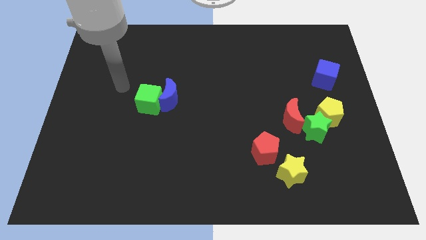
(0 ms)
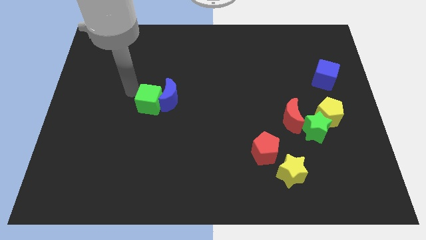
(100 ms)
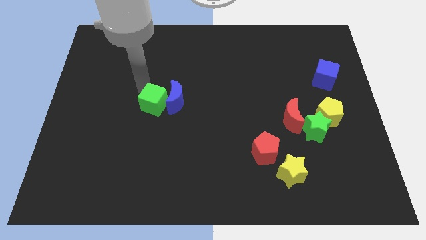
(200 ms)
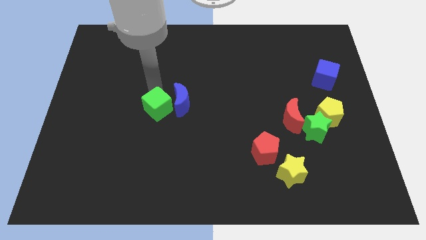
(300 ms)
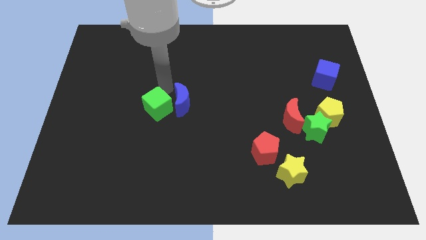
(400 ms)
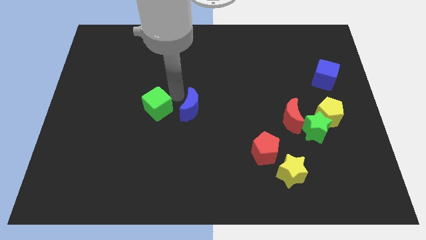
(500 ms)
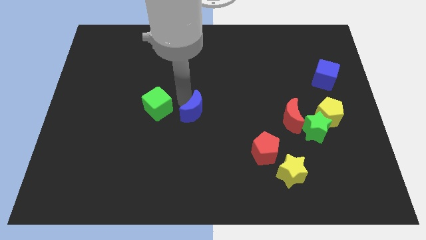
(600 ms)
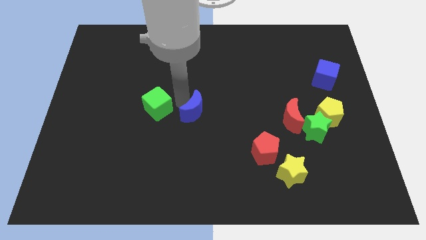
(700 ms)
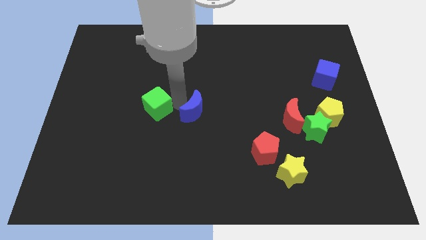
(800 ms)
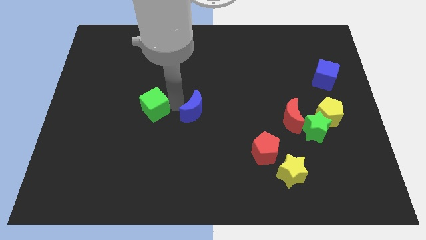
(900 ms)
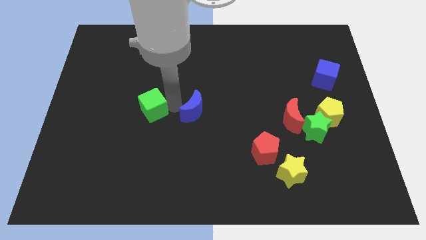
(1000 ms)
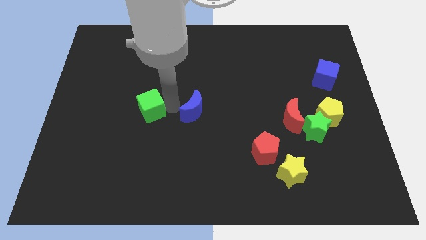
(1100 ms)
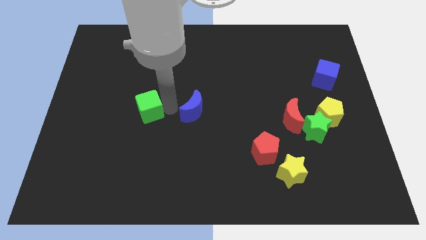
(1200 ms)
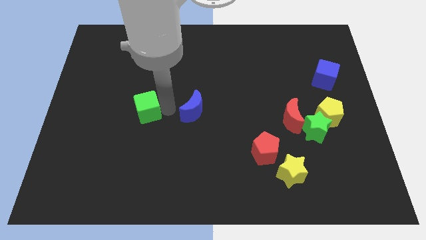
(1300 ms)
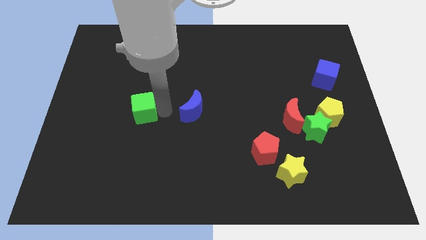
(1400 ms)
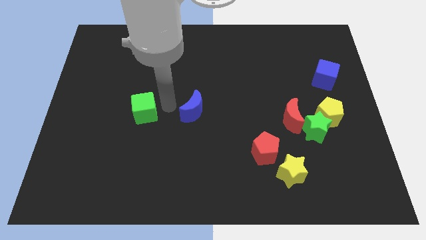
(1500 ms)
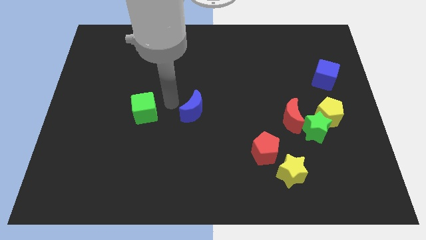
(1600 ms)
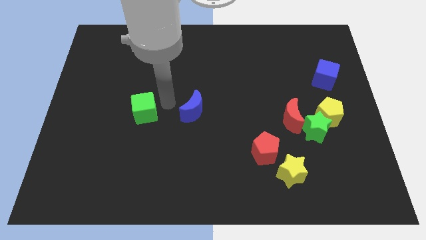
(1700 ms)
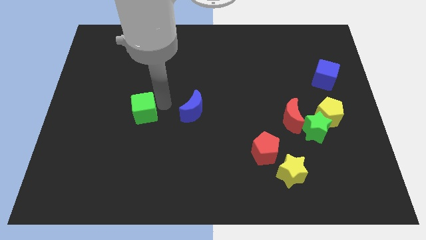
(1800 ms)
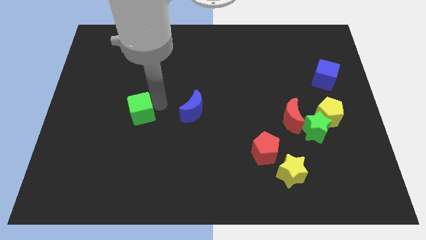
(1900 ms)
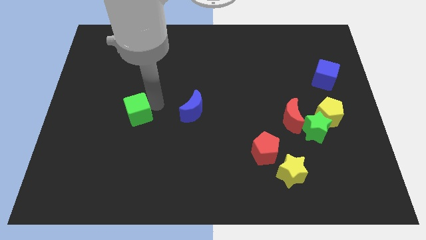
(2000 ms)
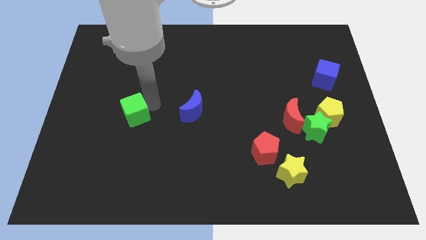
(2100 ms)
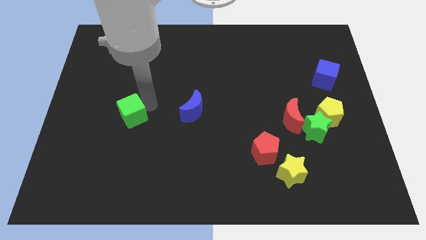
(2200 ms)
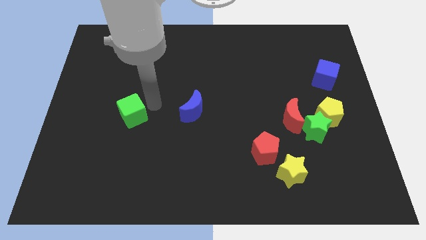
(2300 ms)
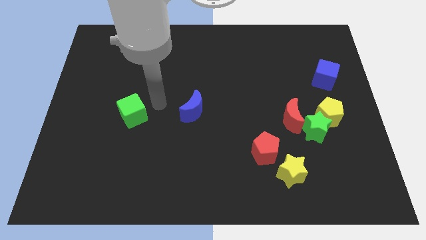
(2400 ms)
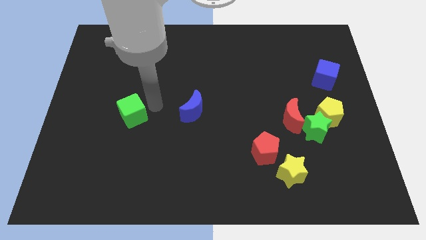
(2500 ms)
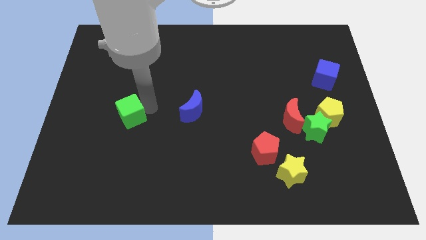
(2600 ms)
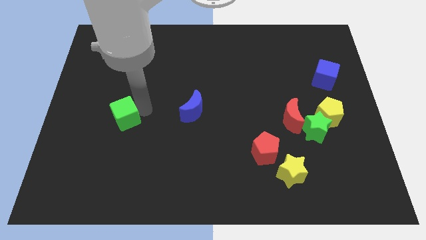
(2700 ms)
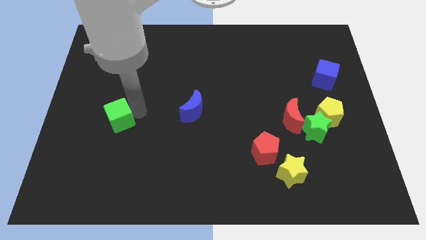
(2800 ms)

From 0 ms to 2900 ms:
slightly slide the green cube downwards and to the left

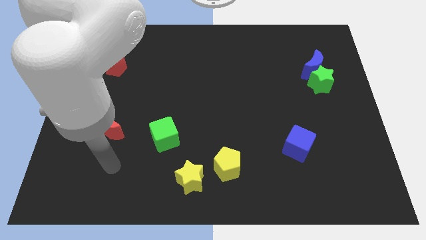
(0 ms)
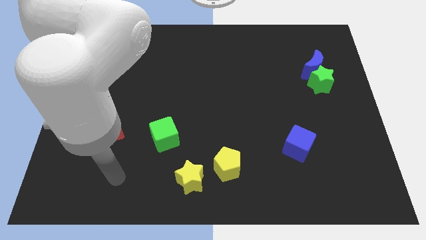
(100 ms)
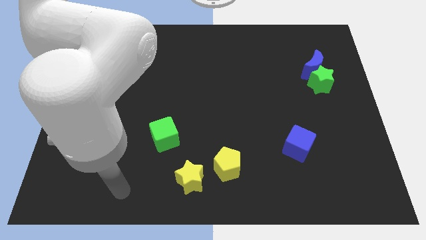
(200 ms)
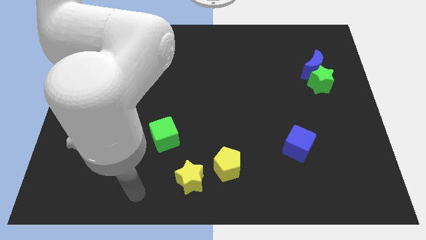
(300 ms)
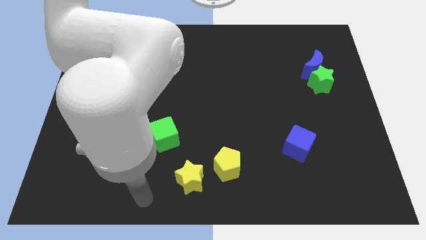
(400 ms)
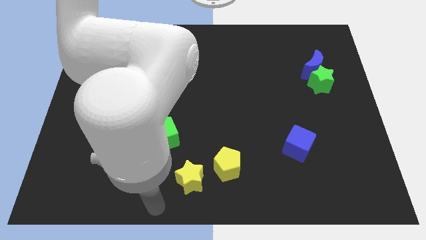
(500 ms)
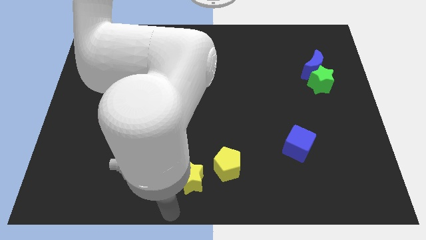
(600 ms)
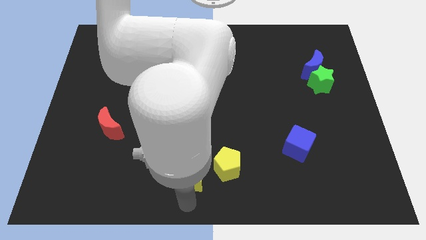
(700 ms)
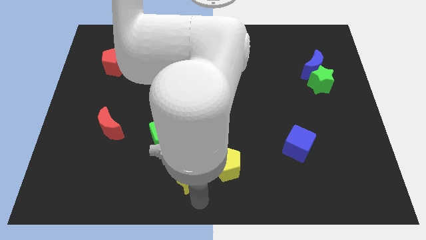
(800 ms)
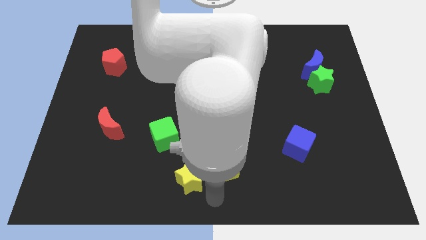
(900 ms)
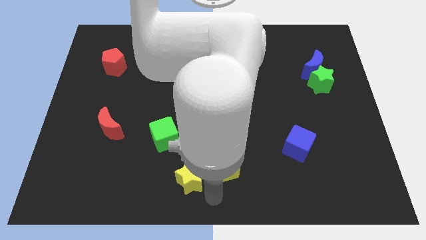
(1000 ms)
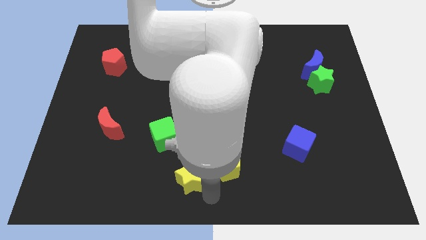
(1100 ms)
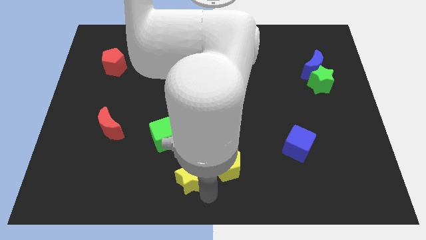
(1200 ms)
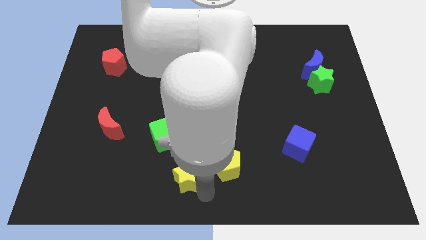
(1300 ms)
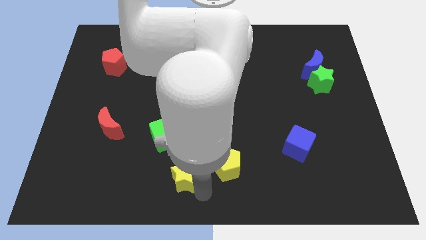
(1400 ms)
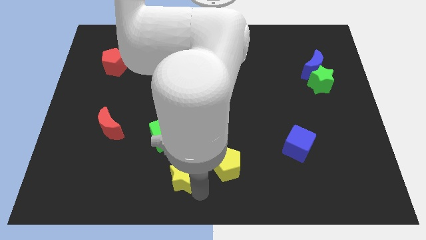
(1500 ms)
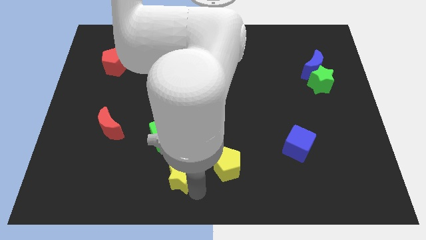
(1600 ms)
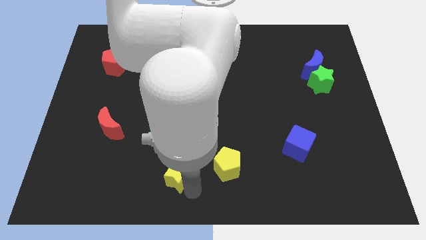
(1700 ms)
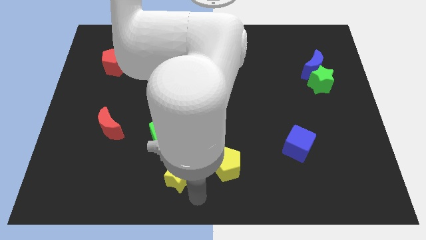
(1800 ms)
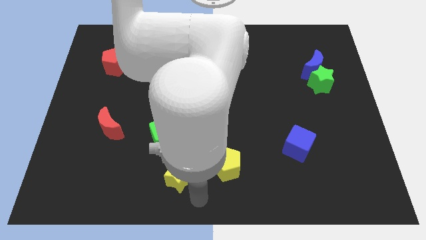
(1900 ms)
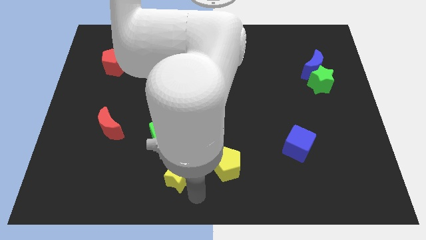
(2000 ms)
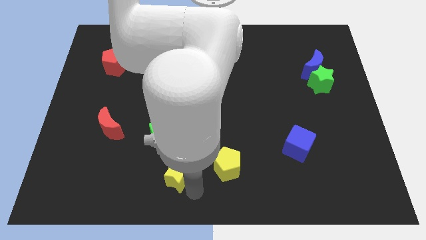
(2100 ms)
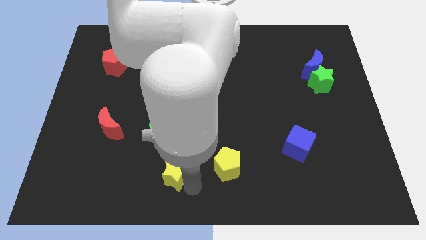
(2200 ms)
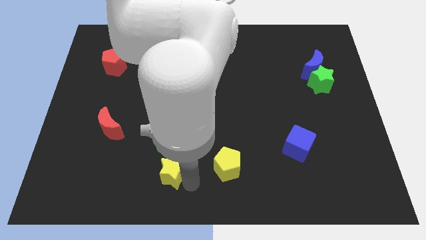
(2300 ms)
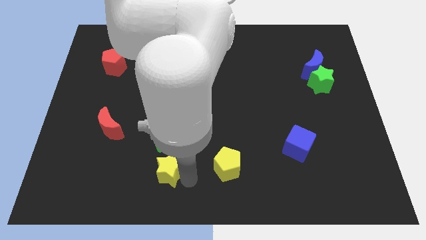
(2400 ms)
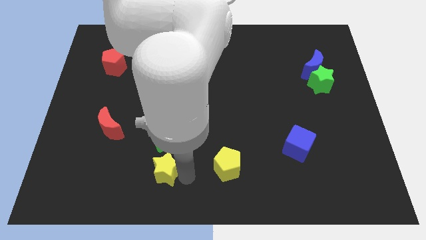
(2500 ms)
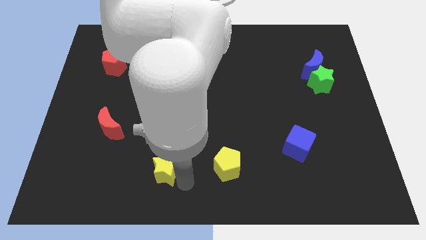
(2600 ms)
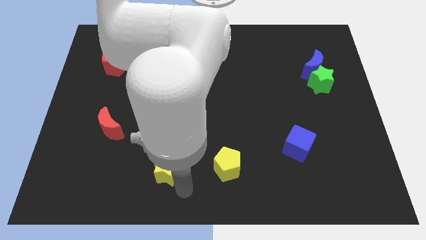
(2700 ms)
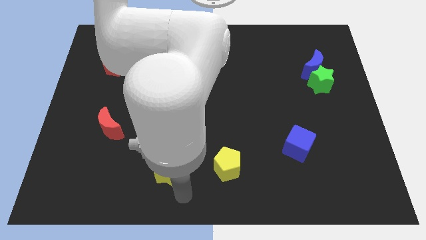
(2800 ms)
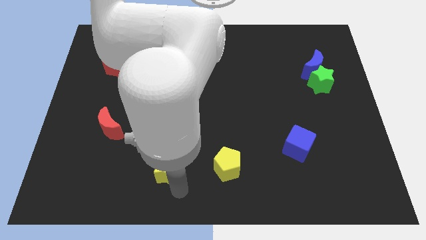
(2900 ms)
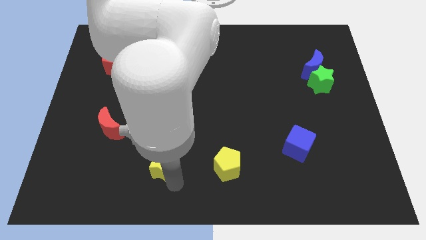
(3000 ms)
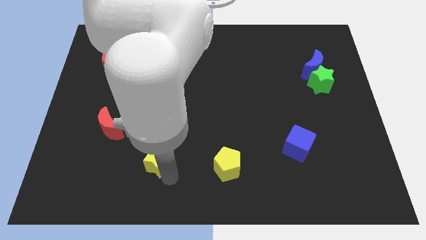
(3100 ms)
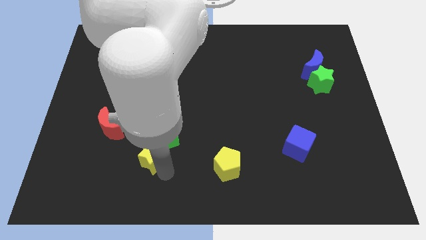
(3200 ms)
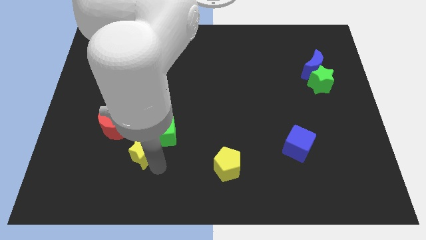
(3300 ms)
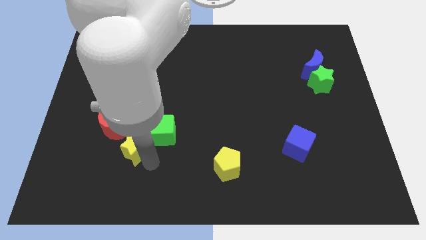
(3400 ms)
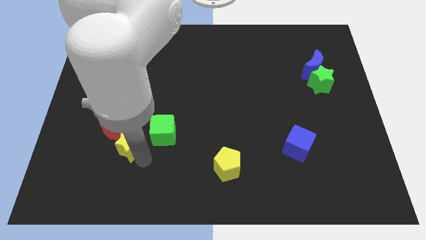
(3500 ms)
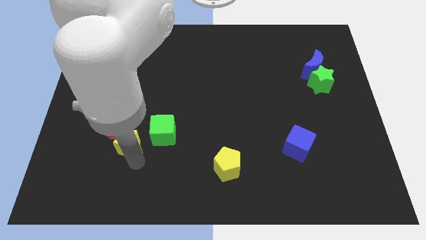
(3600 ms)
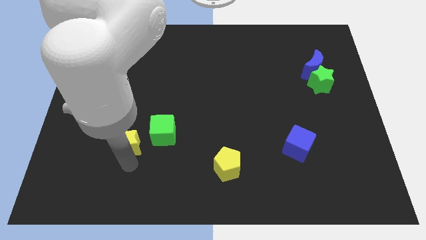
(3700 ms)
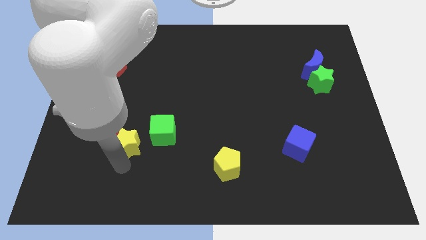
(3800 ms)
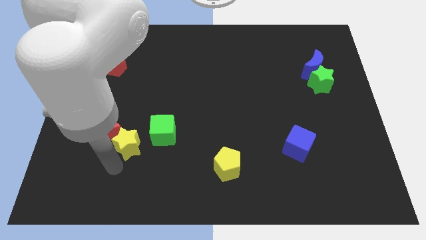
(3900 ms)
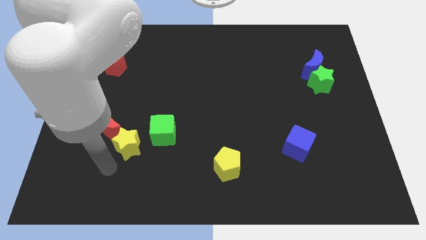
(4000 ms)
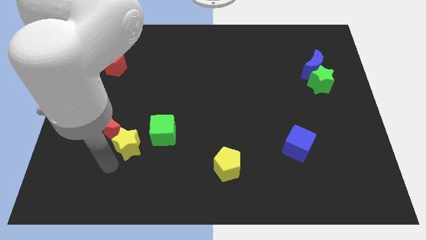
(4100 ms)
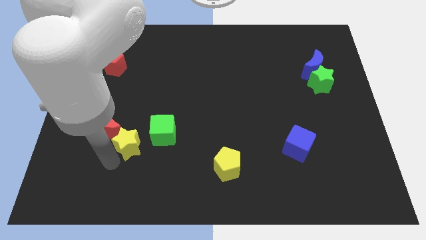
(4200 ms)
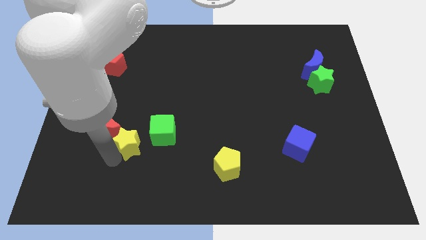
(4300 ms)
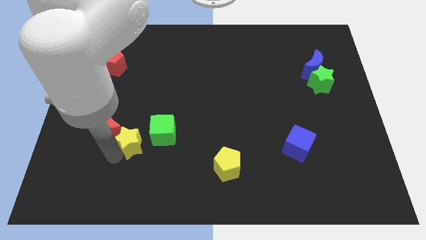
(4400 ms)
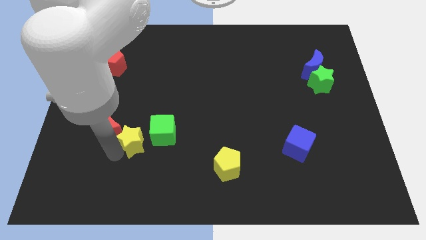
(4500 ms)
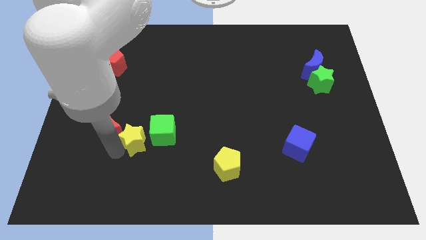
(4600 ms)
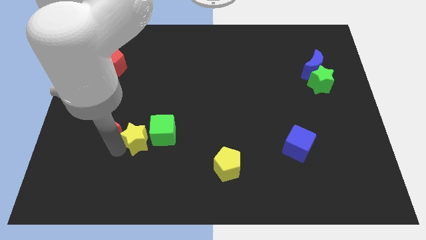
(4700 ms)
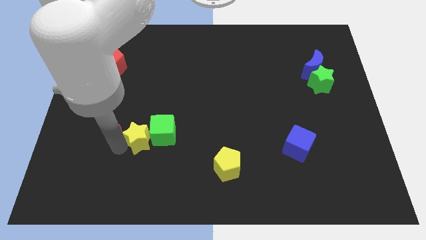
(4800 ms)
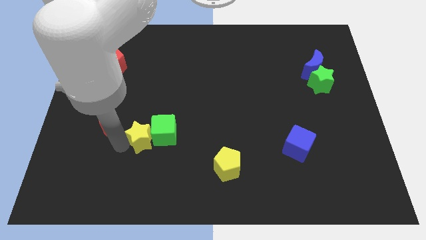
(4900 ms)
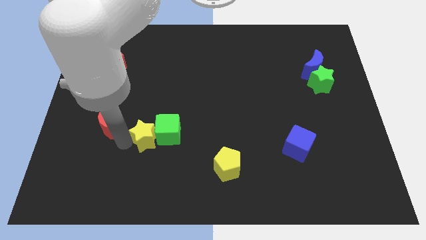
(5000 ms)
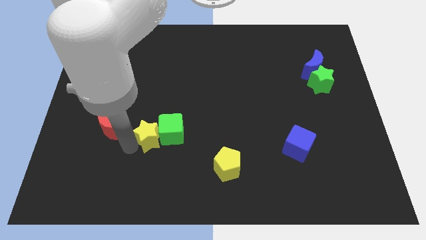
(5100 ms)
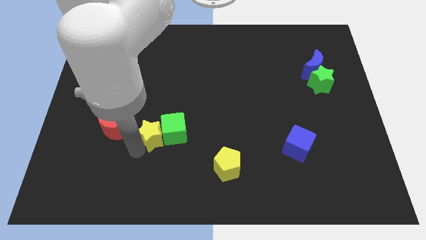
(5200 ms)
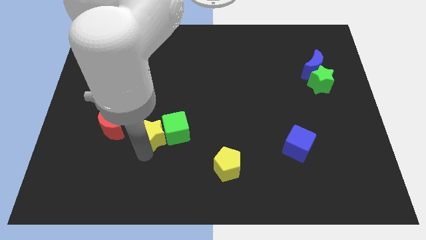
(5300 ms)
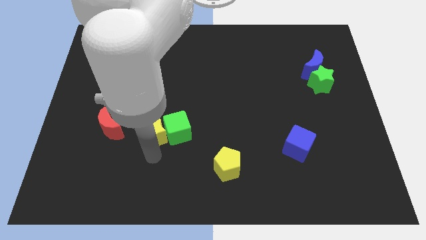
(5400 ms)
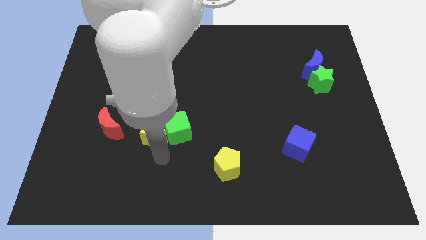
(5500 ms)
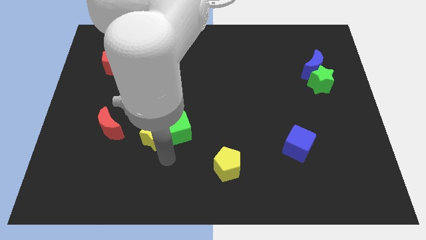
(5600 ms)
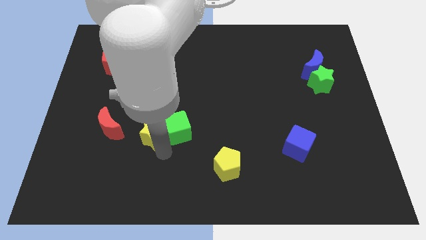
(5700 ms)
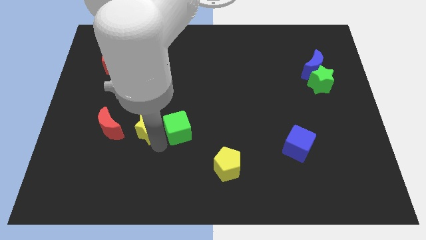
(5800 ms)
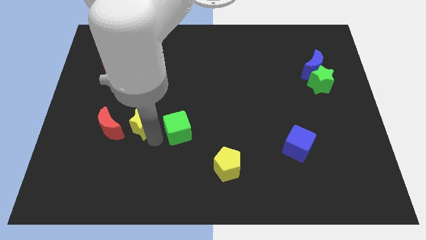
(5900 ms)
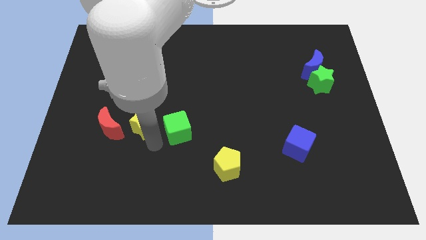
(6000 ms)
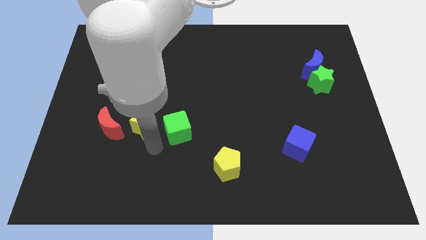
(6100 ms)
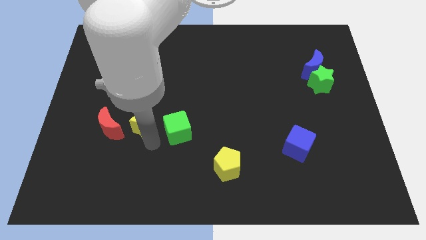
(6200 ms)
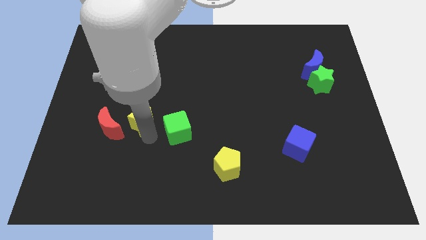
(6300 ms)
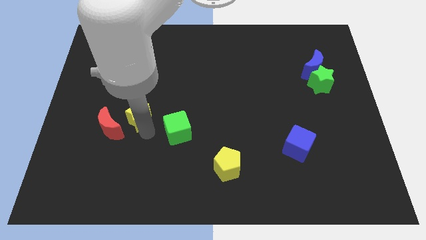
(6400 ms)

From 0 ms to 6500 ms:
move the yellow star up and to the left
